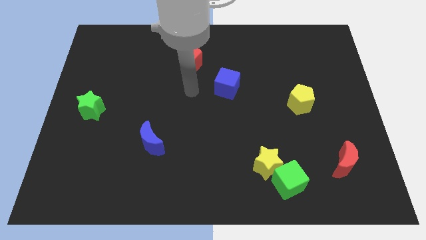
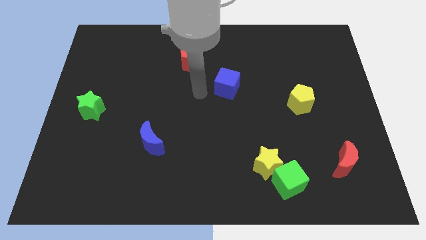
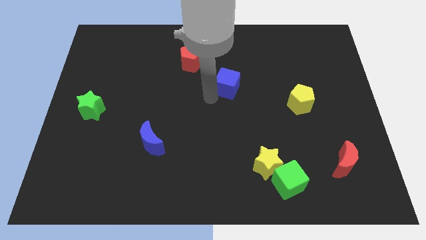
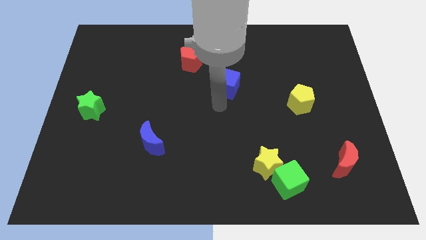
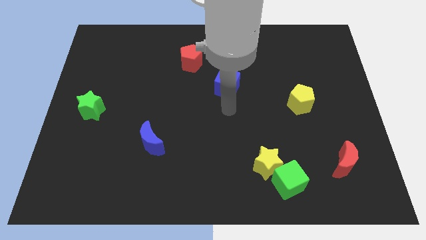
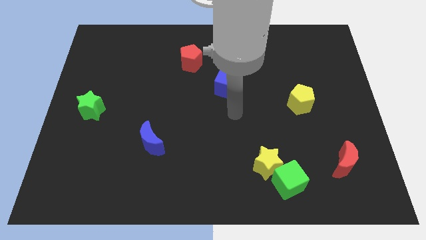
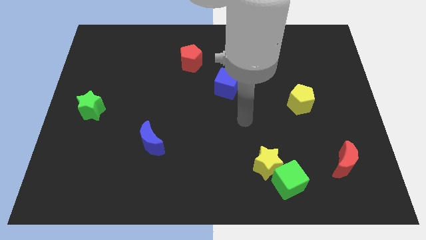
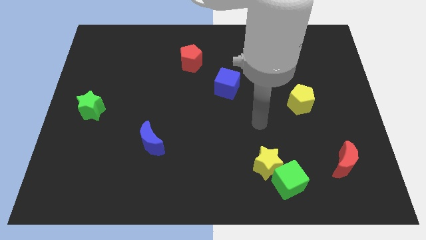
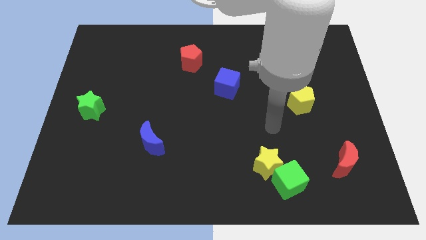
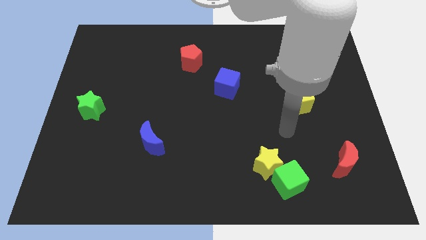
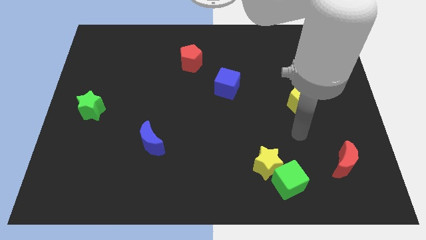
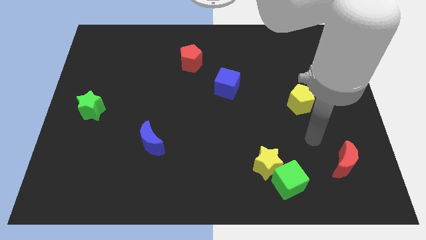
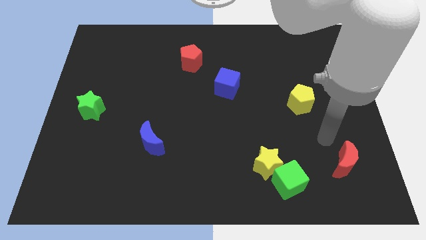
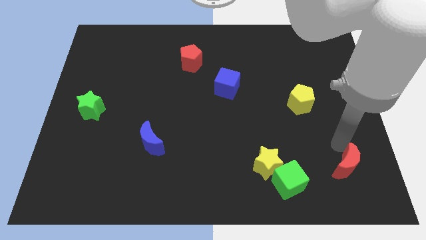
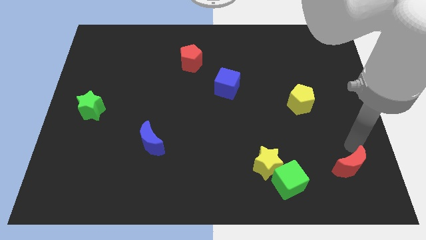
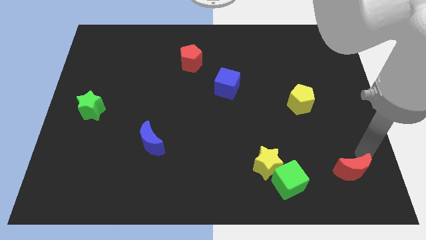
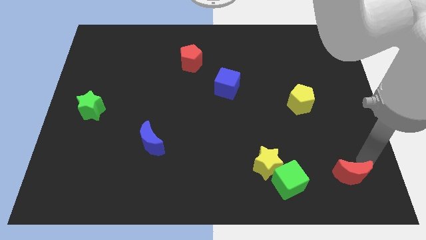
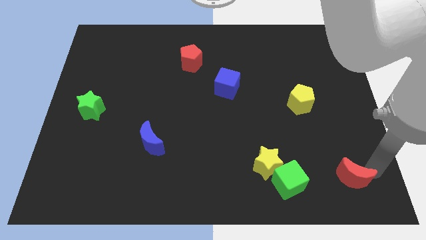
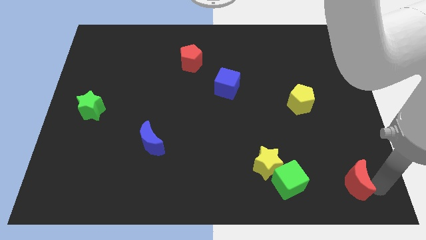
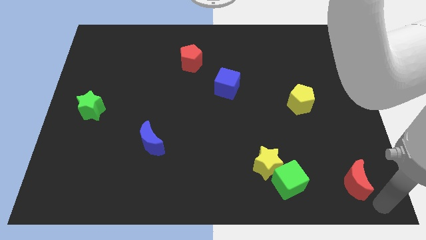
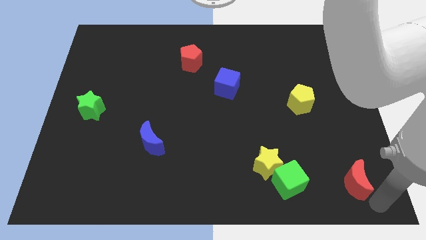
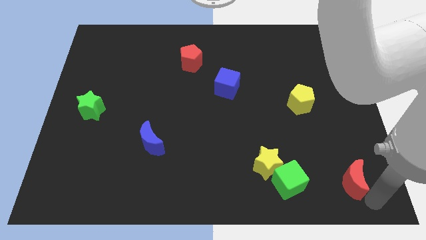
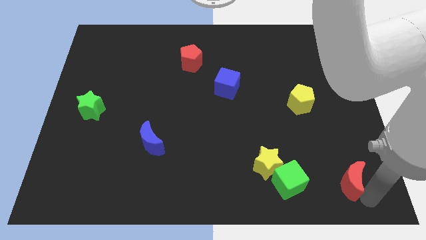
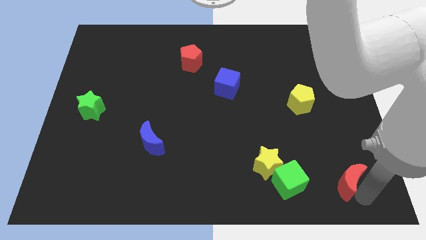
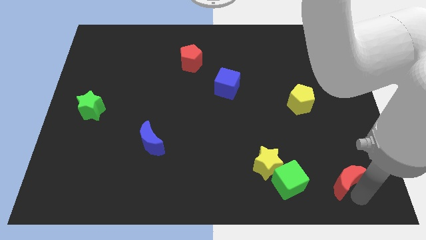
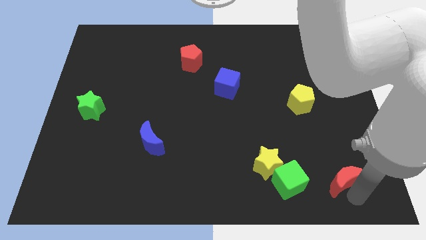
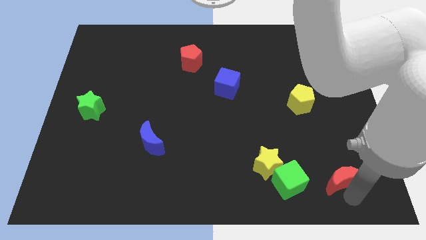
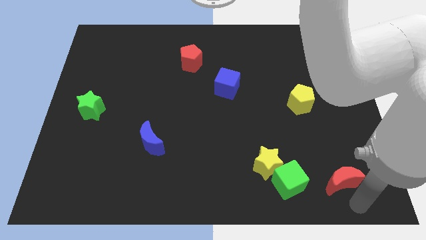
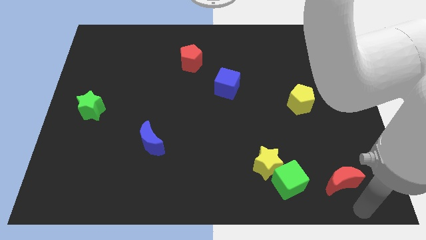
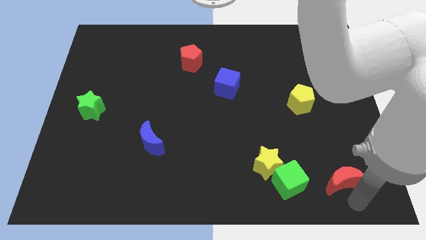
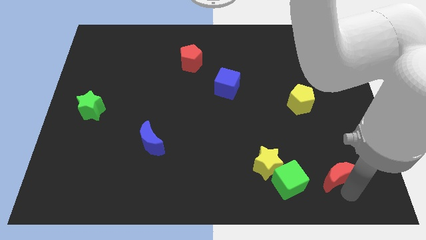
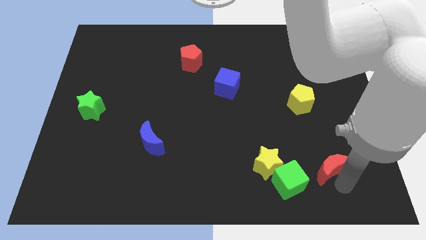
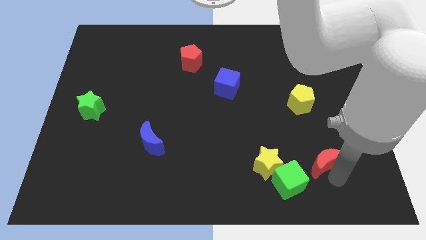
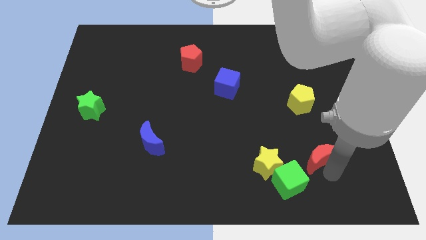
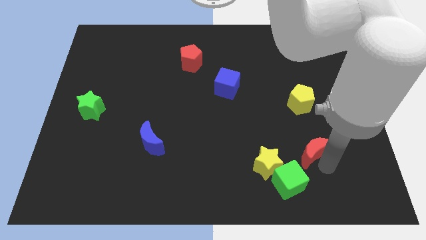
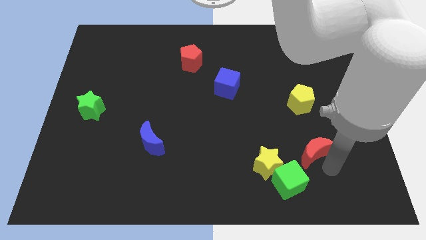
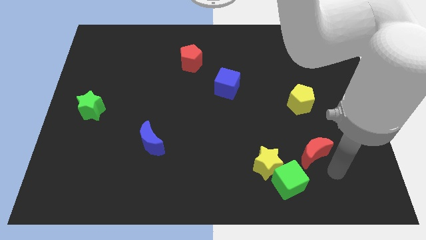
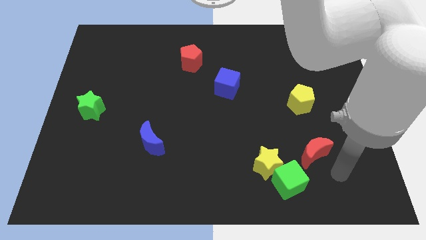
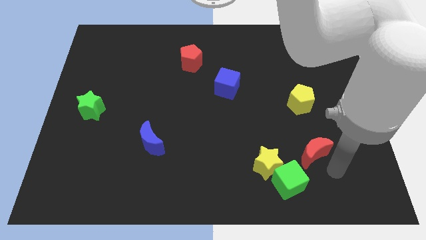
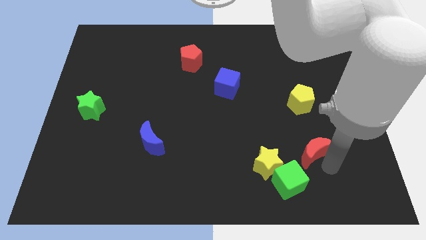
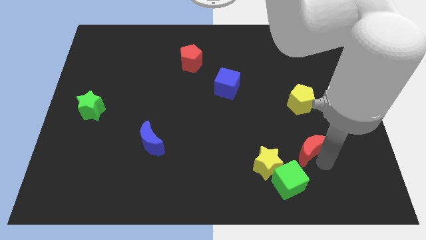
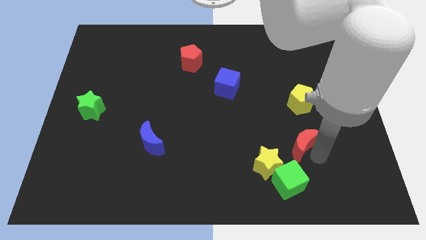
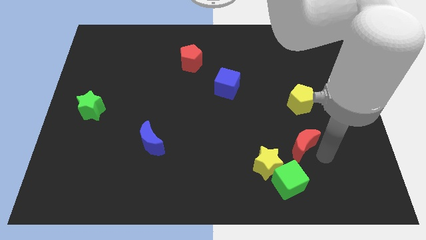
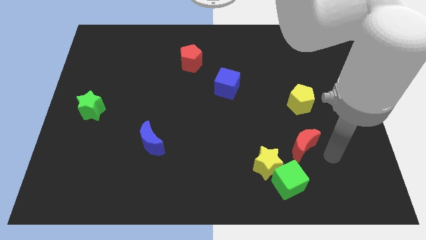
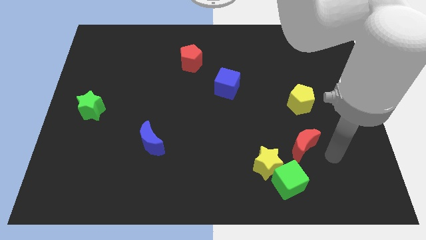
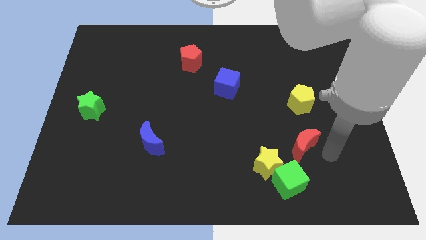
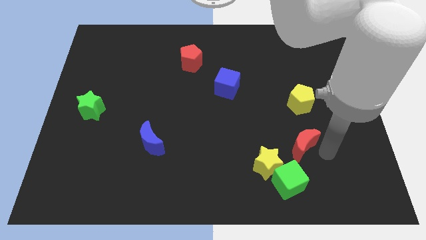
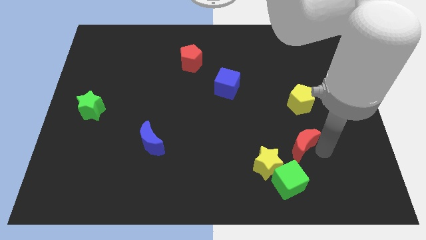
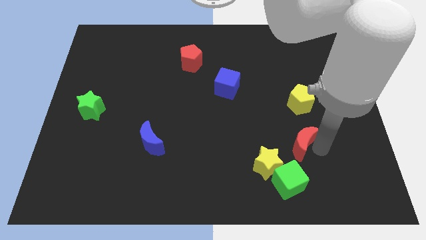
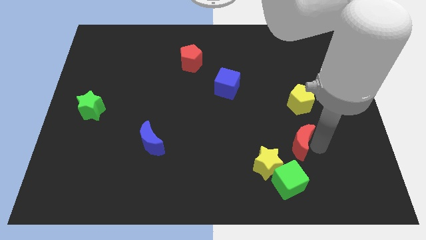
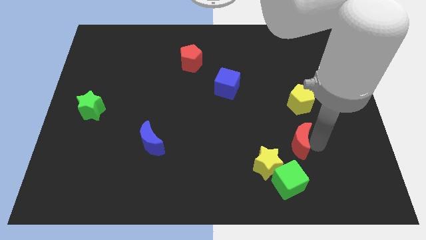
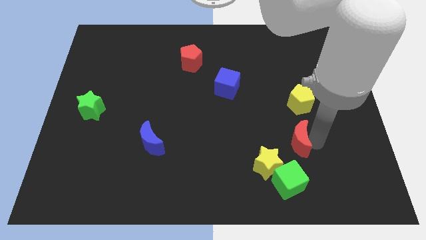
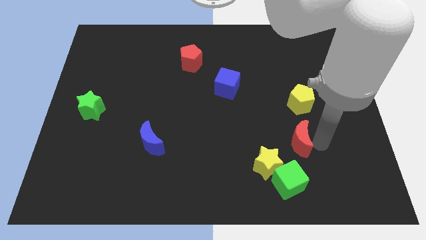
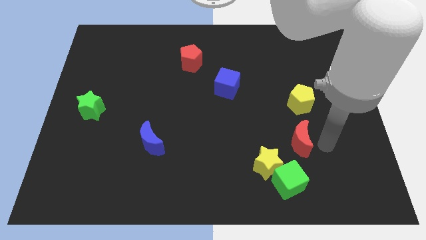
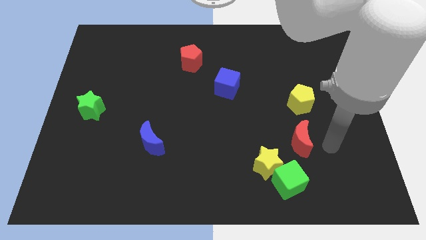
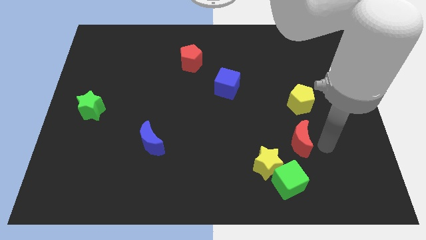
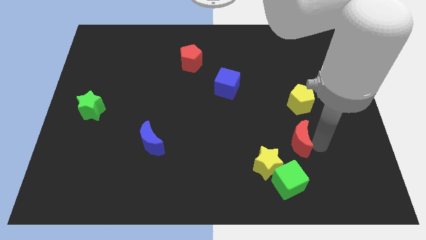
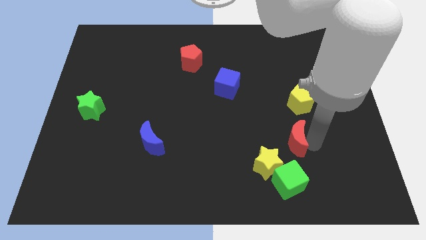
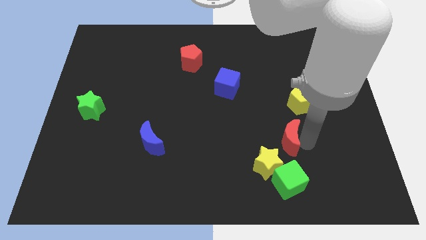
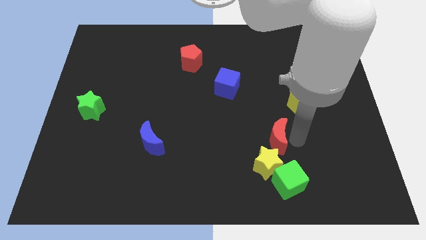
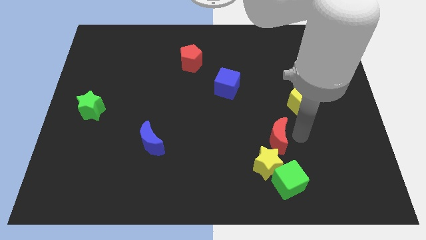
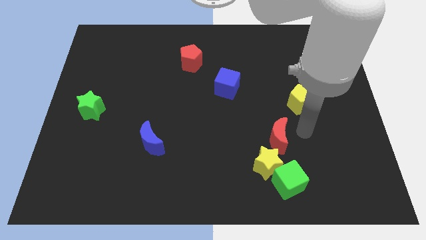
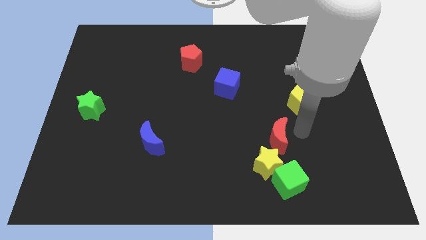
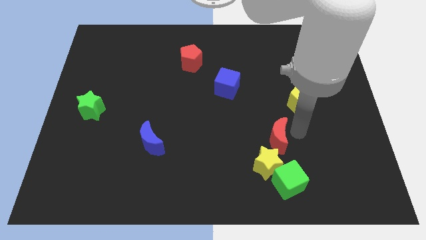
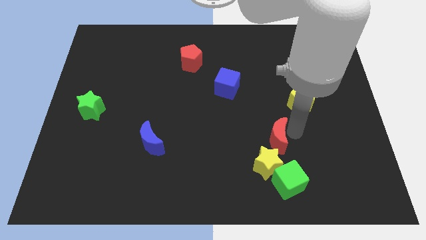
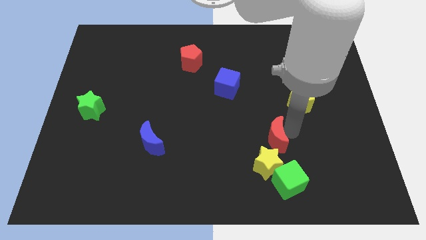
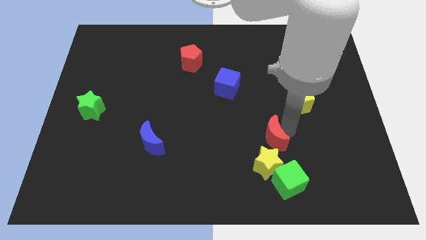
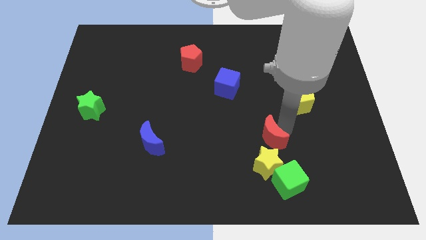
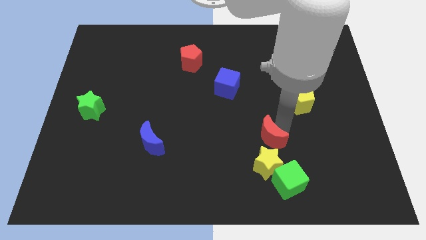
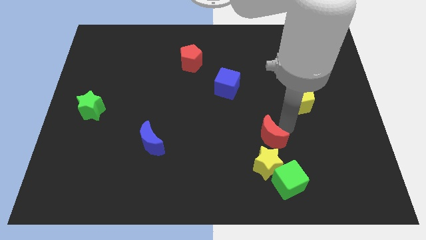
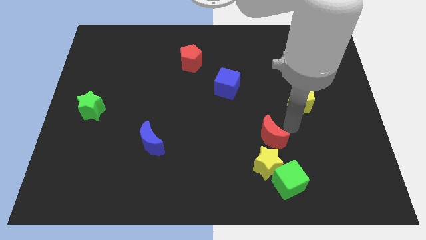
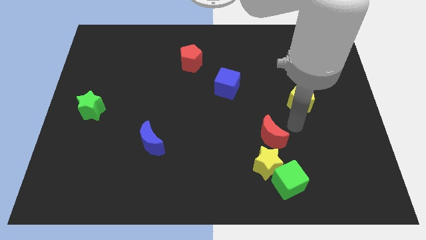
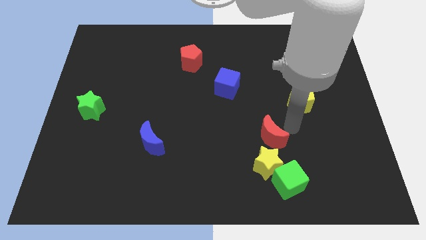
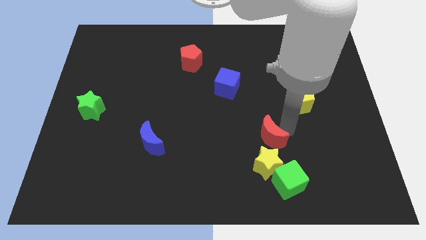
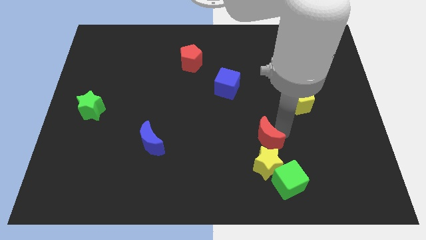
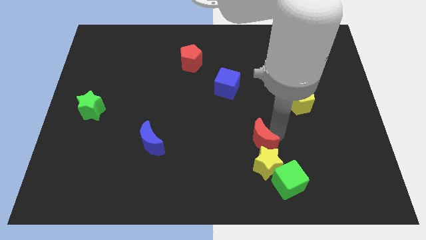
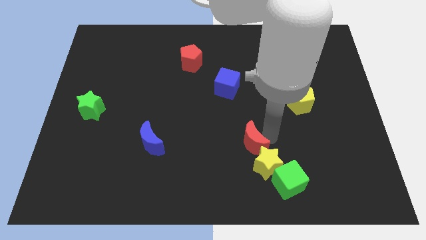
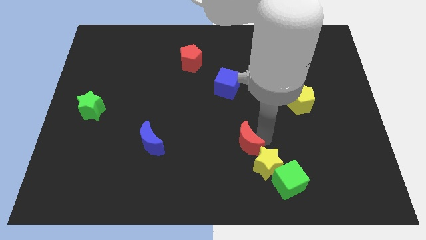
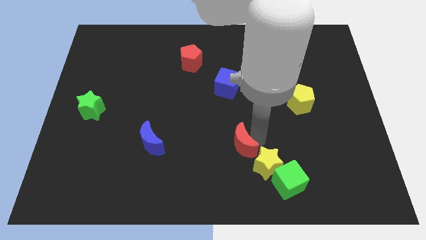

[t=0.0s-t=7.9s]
push the red moon just left of the yellow star
